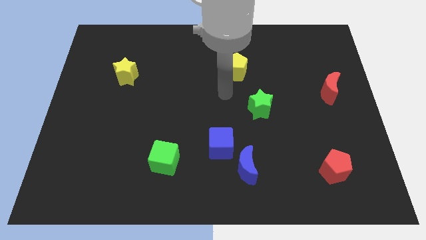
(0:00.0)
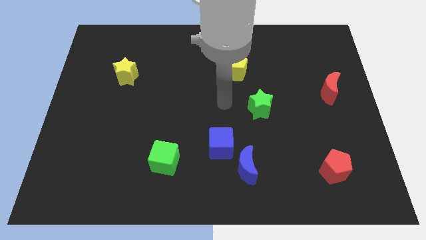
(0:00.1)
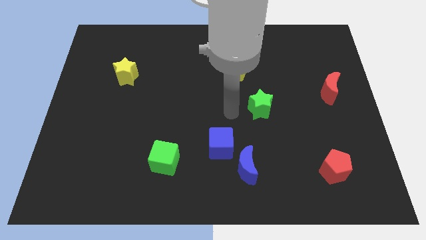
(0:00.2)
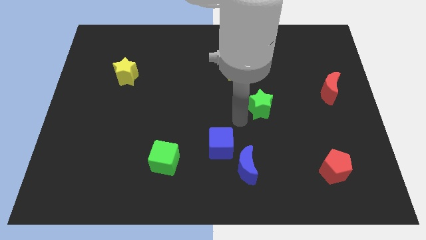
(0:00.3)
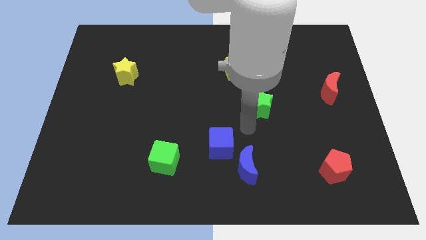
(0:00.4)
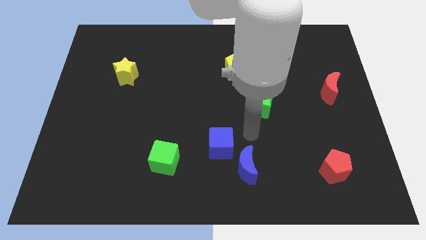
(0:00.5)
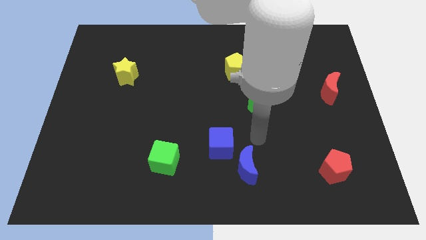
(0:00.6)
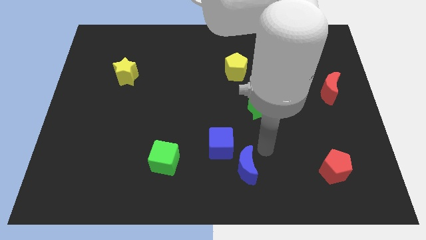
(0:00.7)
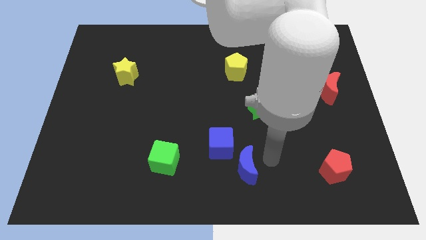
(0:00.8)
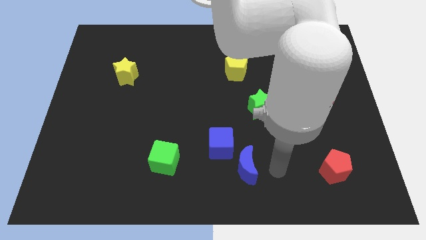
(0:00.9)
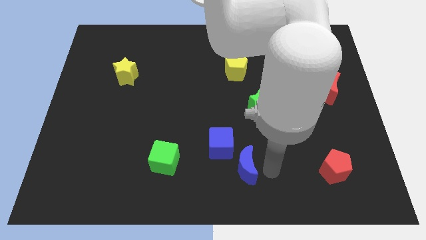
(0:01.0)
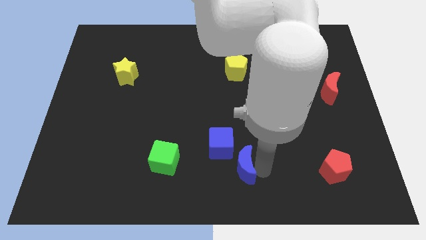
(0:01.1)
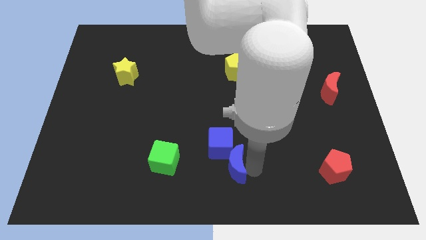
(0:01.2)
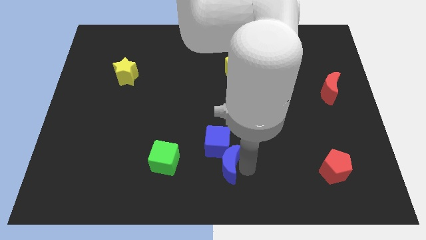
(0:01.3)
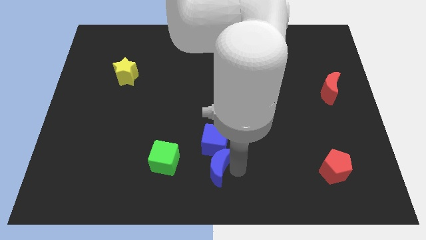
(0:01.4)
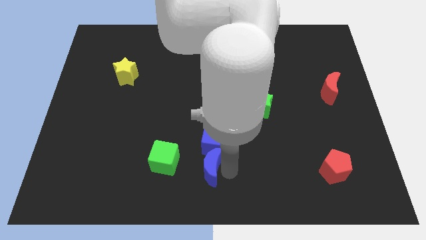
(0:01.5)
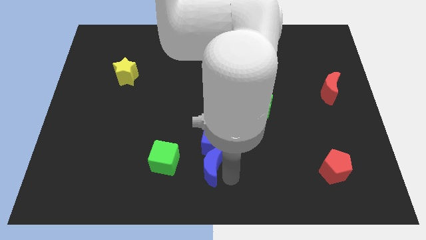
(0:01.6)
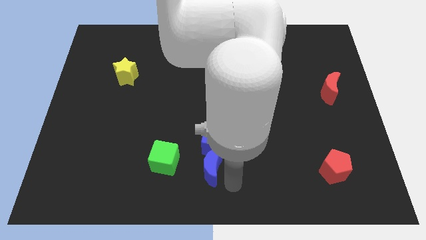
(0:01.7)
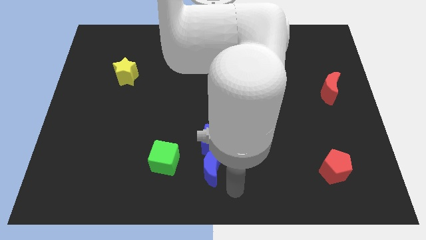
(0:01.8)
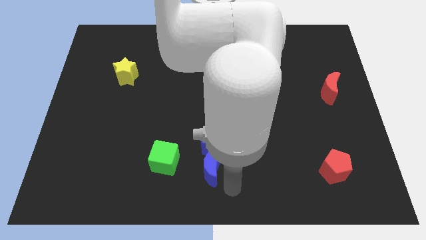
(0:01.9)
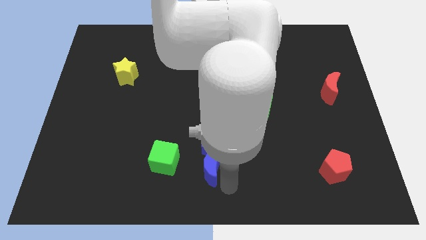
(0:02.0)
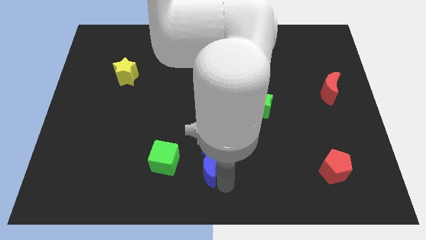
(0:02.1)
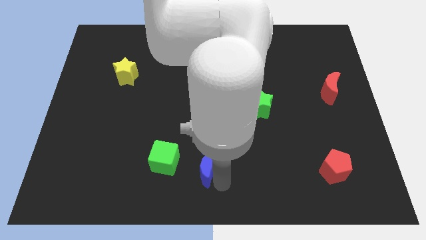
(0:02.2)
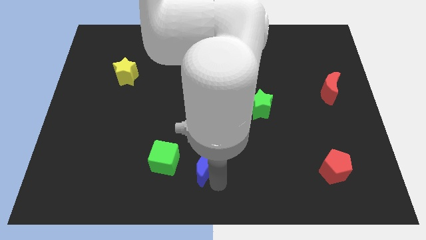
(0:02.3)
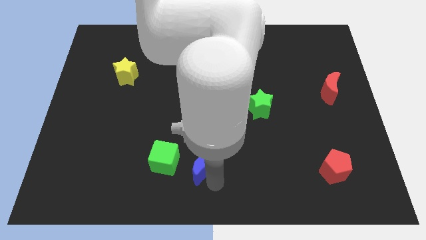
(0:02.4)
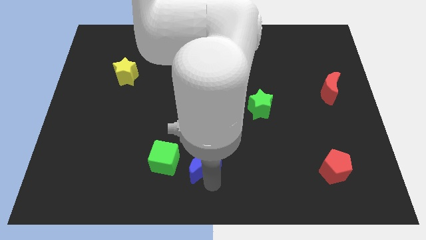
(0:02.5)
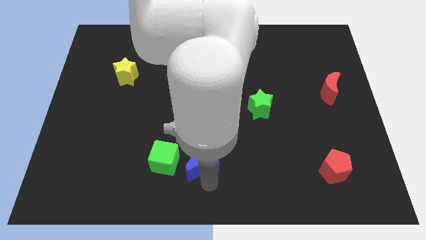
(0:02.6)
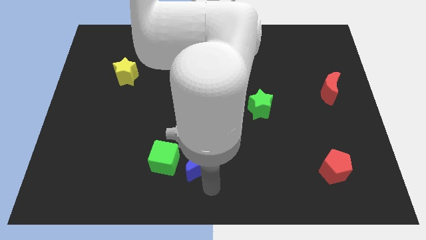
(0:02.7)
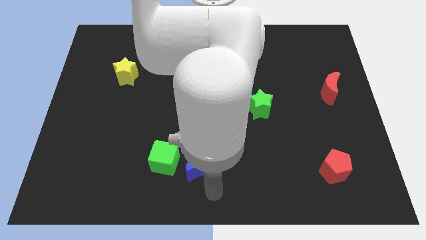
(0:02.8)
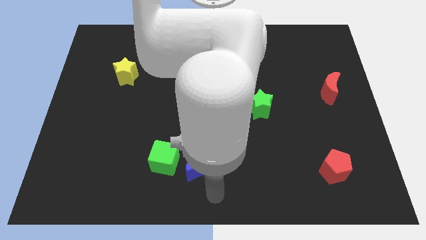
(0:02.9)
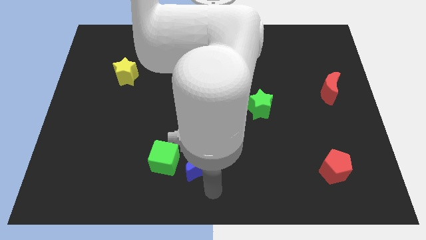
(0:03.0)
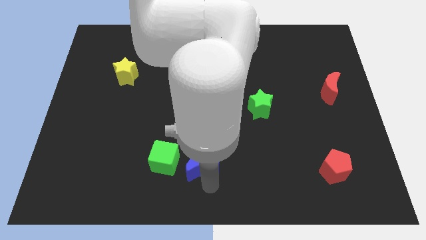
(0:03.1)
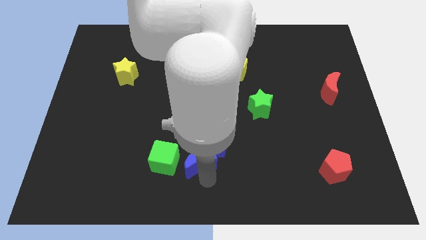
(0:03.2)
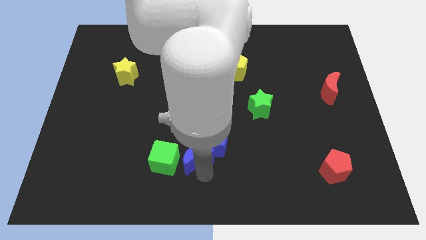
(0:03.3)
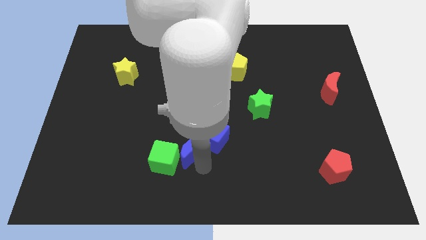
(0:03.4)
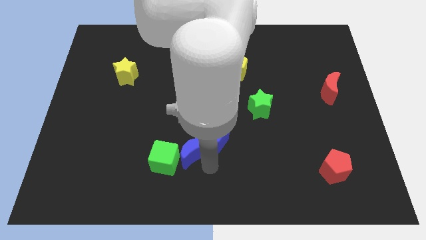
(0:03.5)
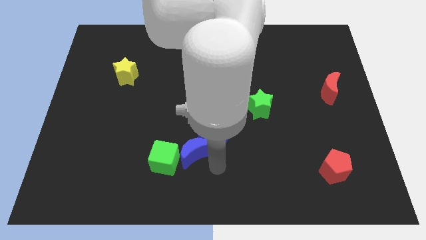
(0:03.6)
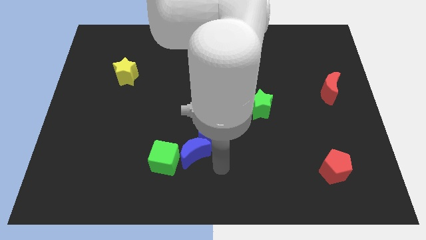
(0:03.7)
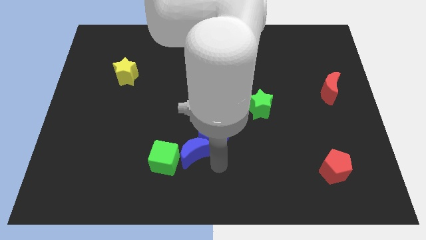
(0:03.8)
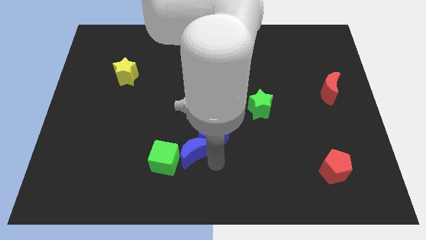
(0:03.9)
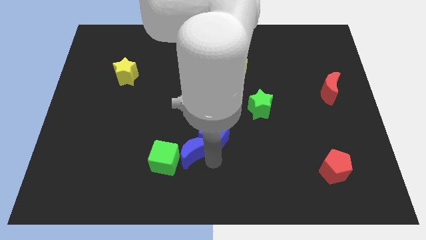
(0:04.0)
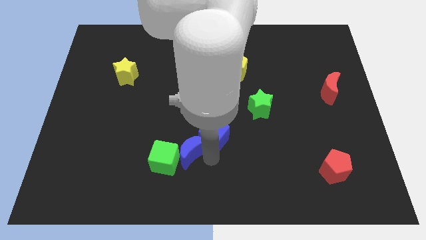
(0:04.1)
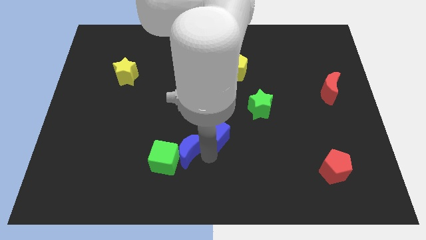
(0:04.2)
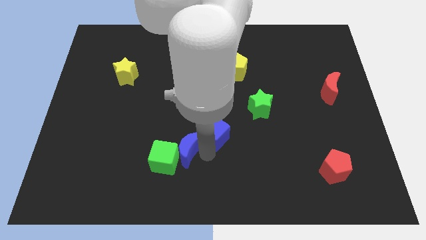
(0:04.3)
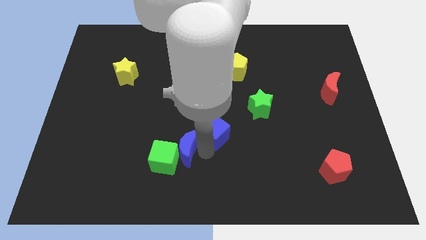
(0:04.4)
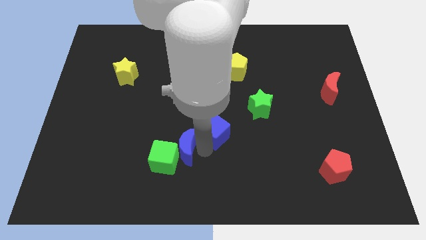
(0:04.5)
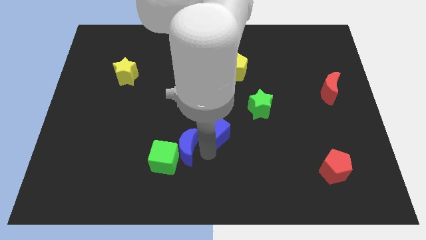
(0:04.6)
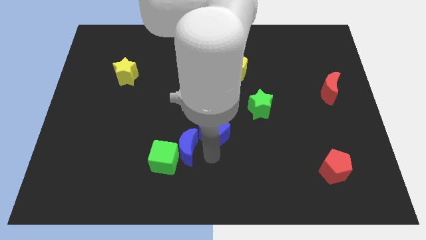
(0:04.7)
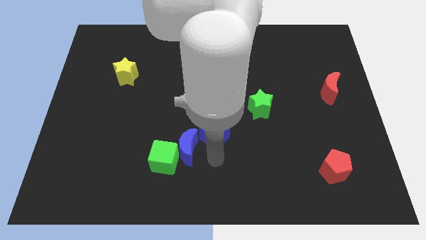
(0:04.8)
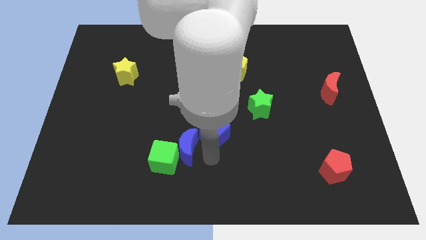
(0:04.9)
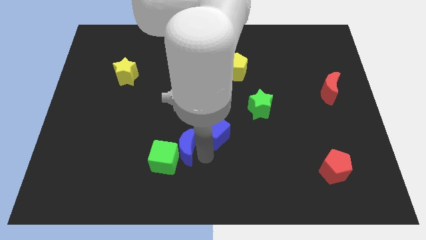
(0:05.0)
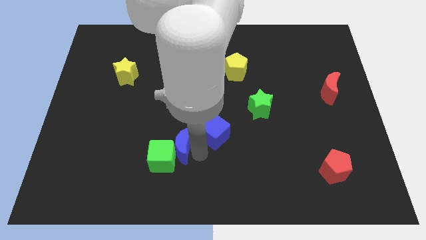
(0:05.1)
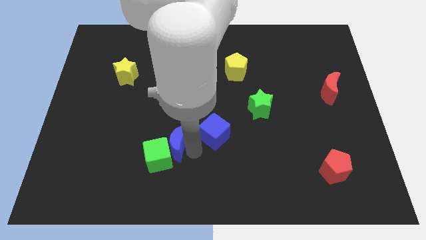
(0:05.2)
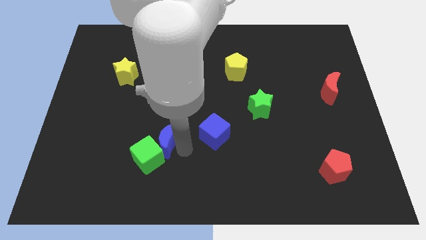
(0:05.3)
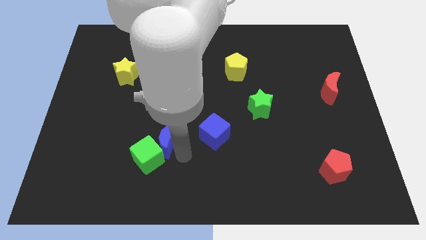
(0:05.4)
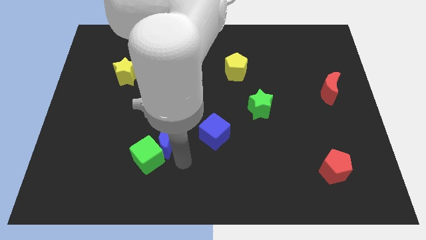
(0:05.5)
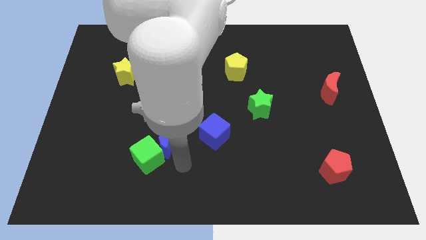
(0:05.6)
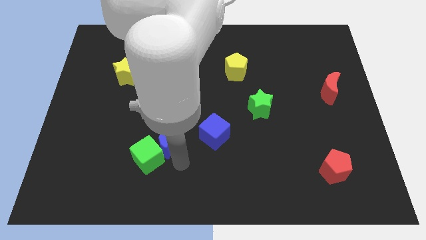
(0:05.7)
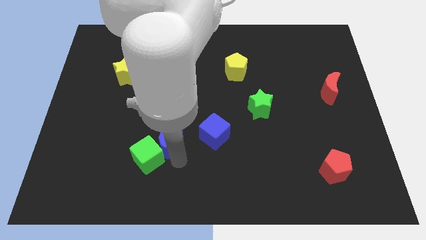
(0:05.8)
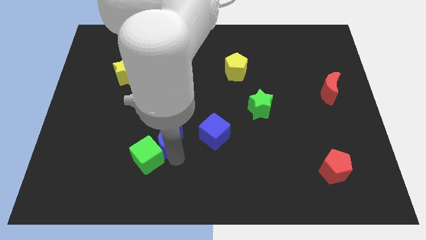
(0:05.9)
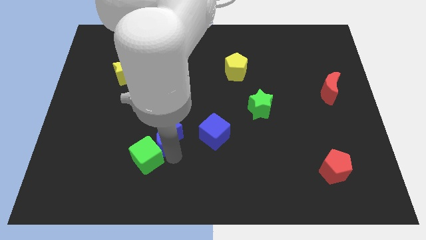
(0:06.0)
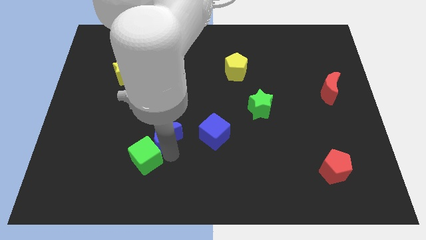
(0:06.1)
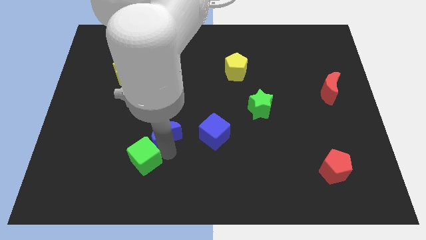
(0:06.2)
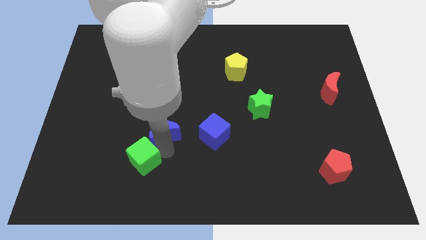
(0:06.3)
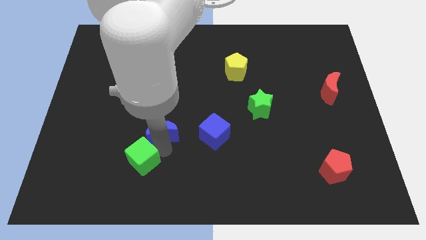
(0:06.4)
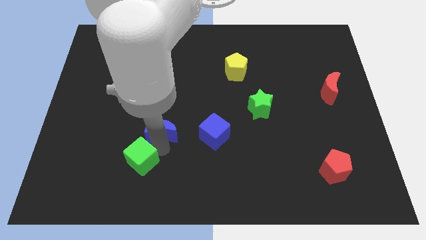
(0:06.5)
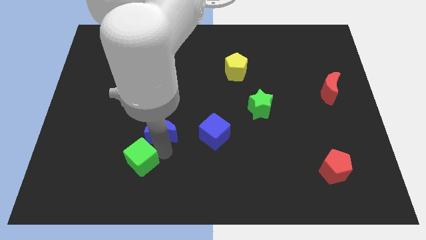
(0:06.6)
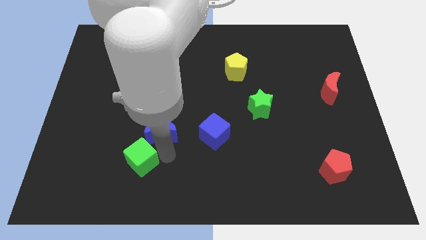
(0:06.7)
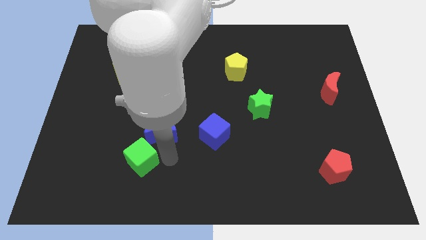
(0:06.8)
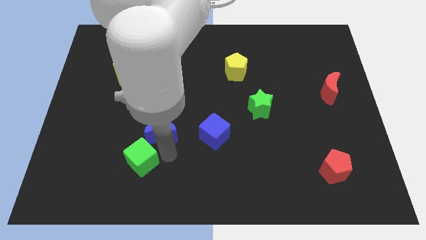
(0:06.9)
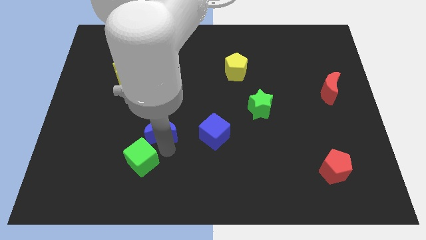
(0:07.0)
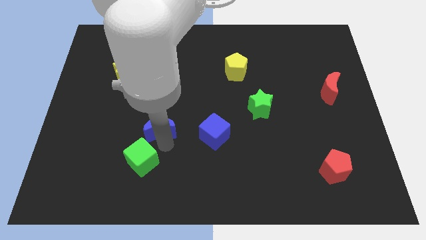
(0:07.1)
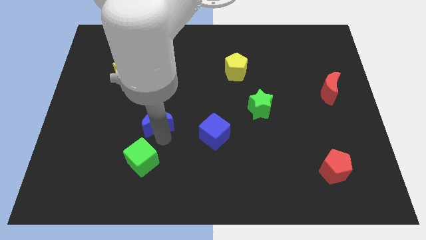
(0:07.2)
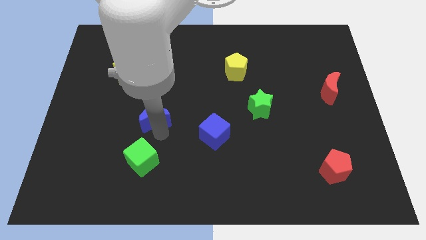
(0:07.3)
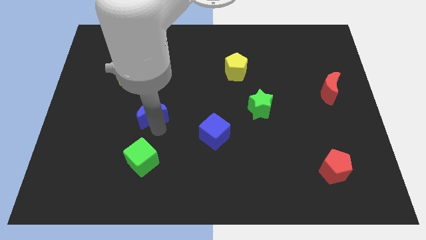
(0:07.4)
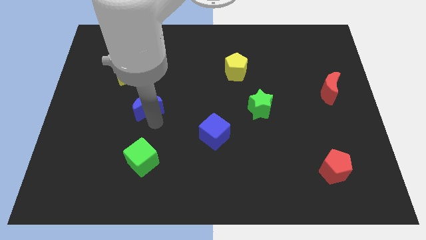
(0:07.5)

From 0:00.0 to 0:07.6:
move the blue moon to the bottom right side of the yellow star
